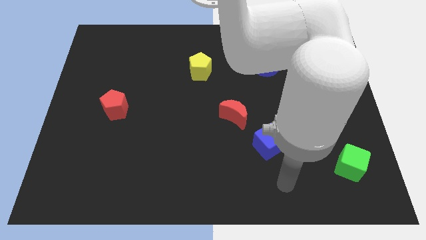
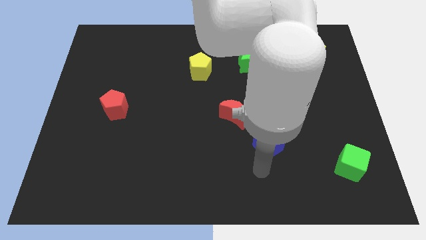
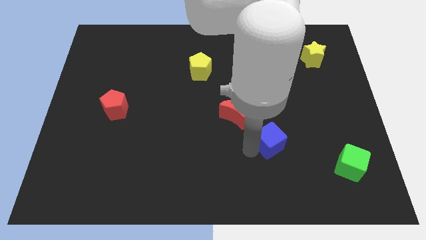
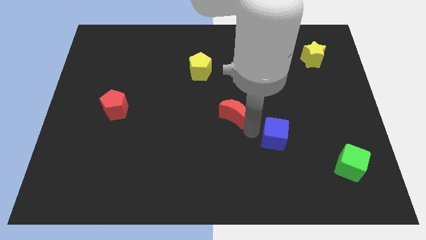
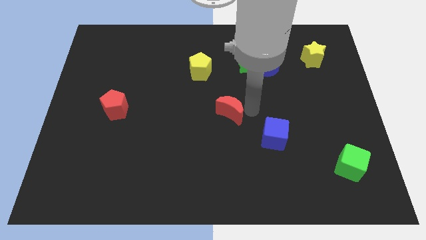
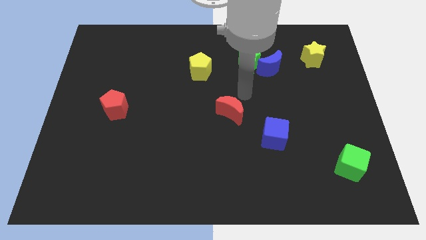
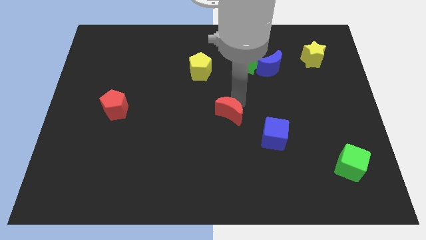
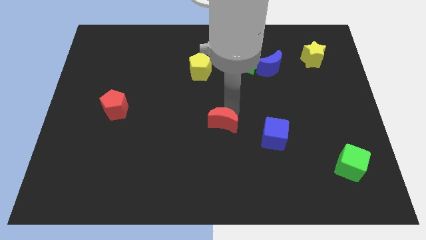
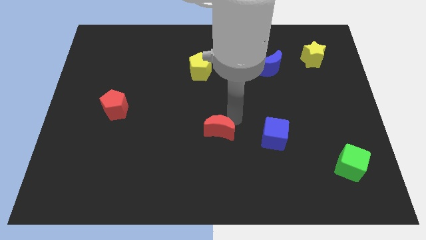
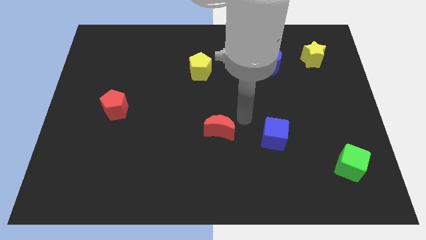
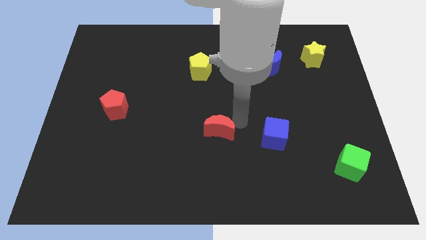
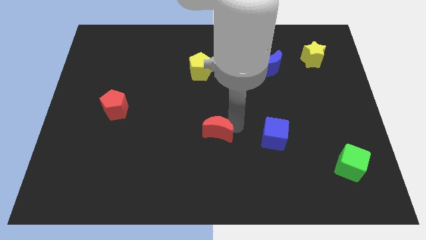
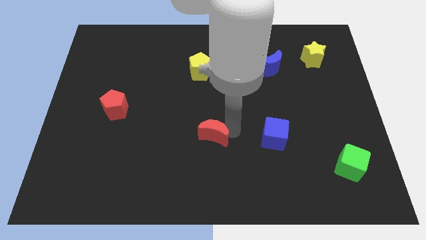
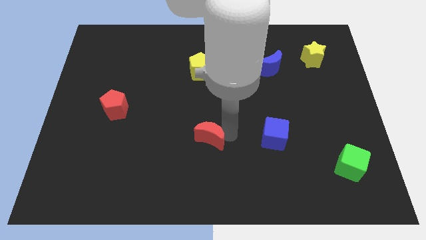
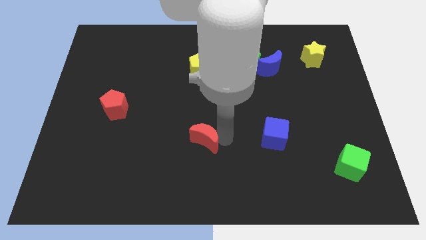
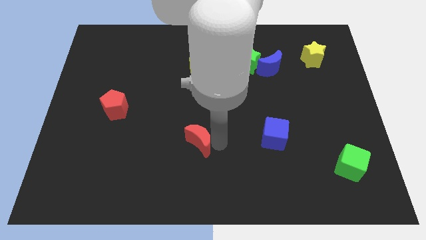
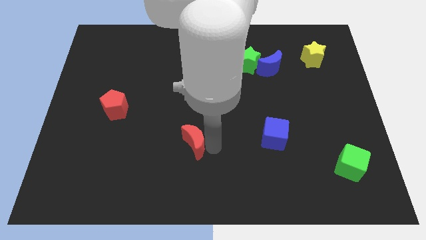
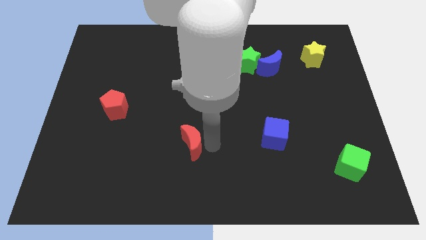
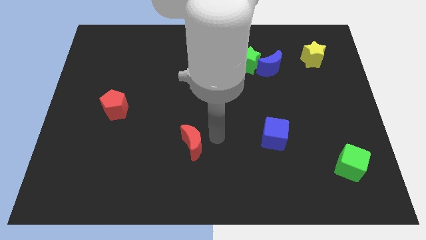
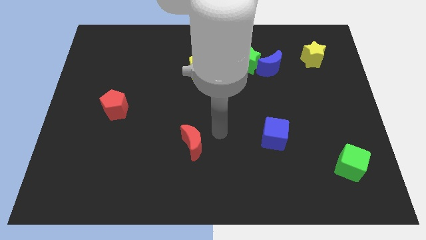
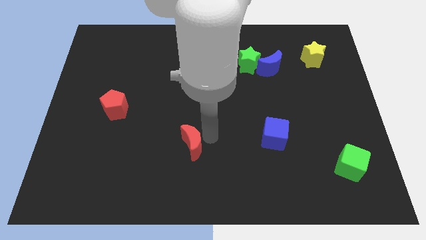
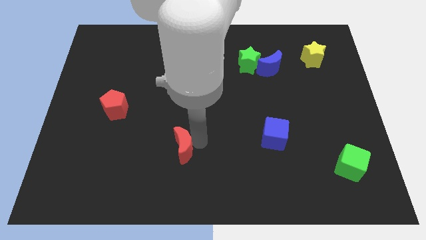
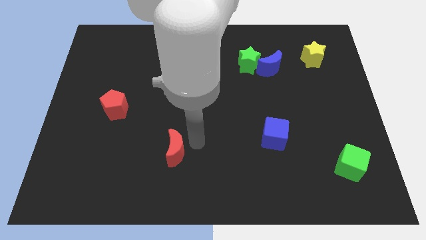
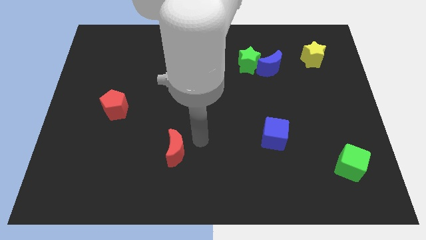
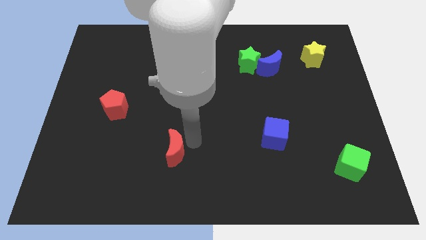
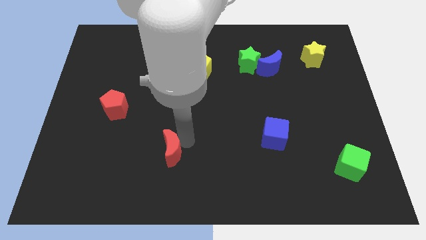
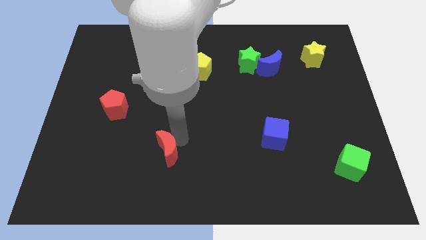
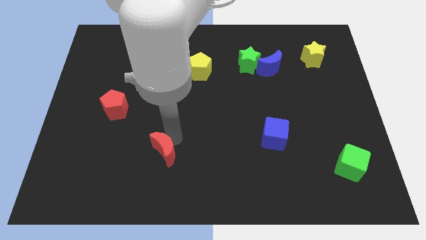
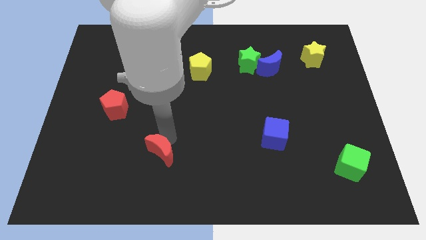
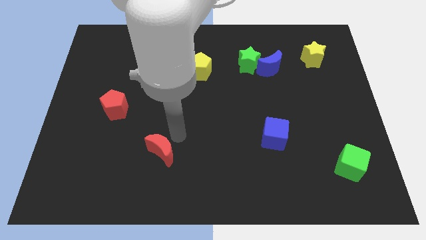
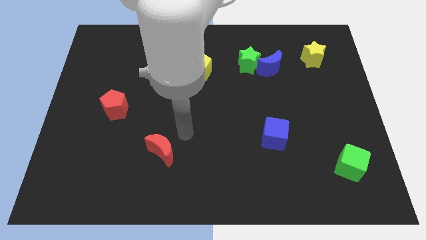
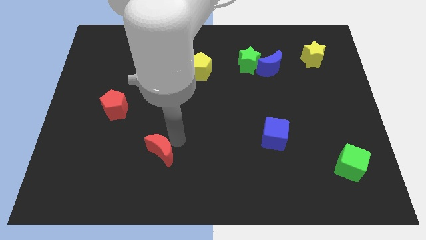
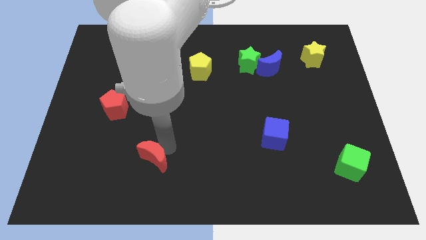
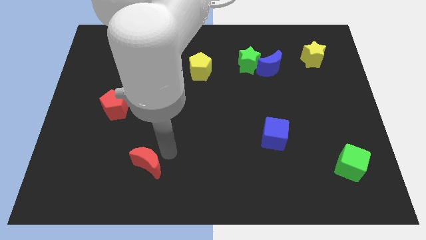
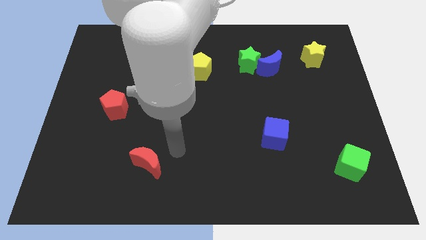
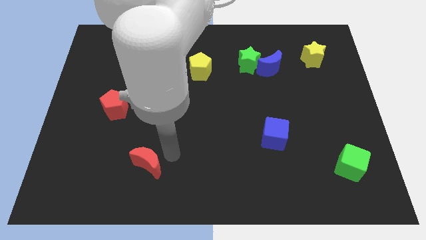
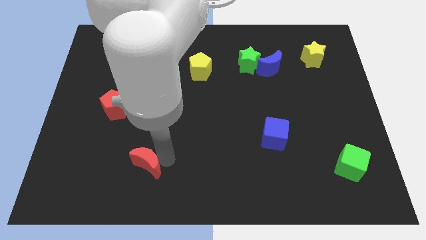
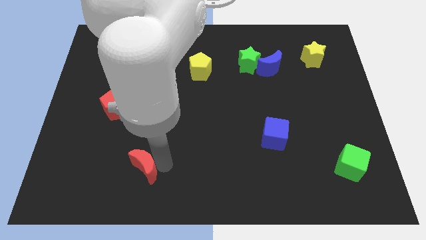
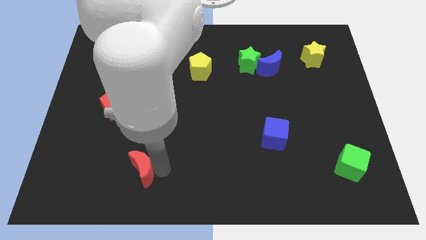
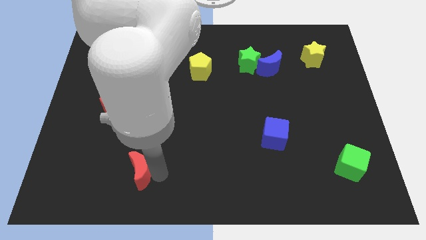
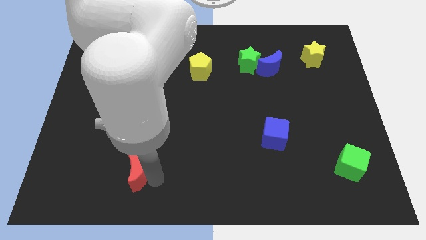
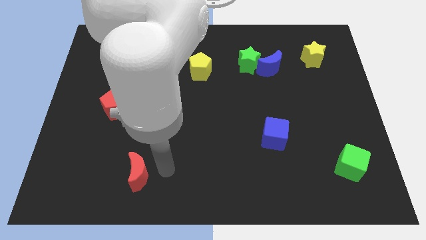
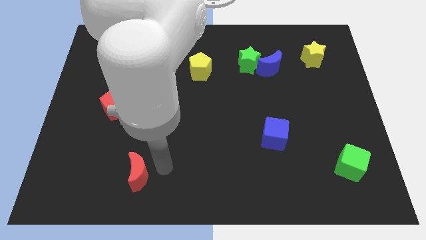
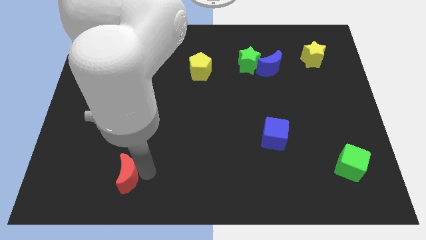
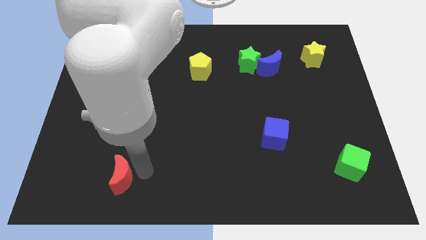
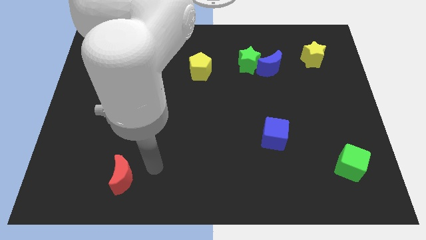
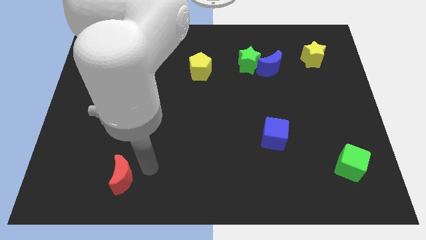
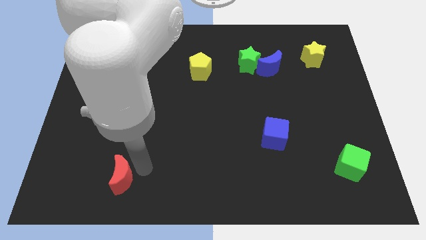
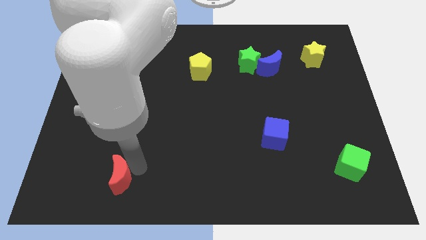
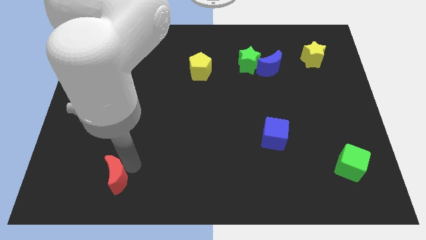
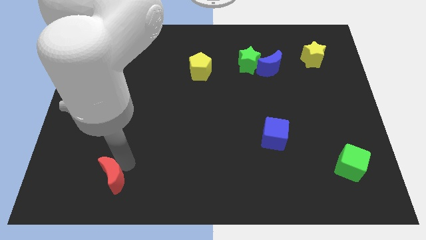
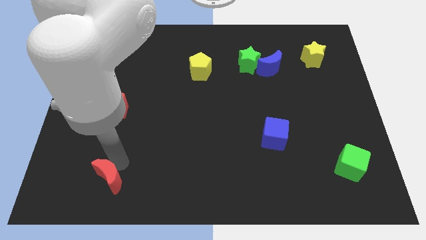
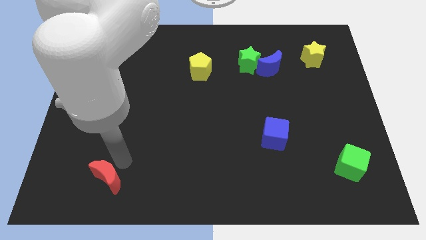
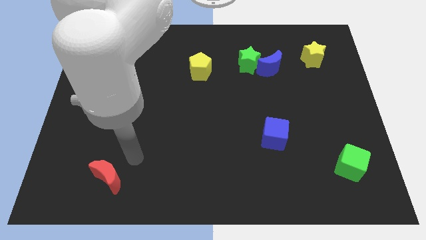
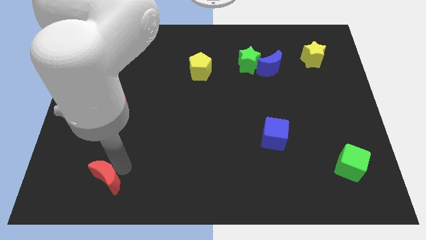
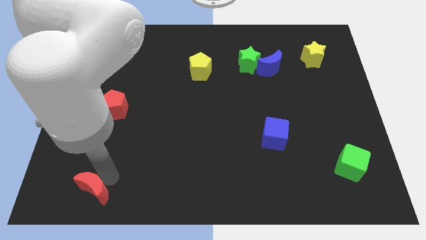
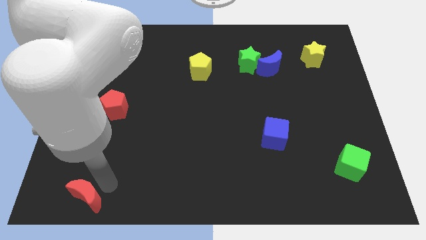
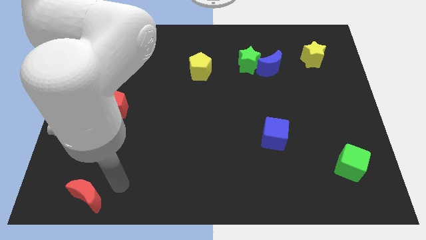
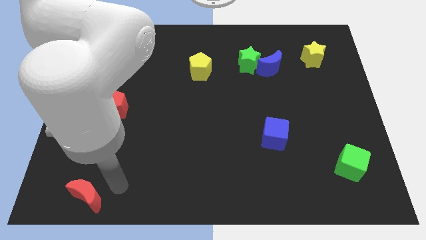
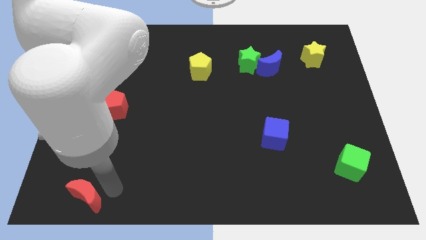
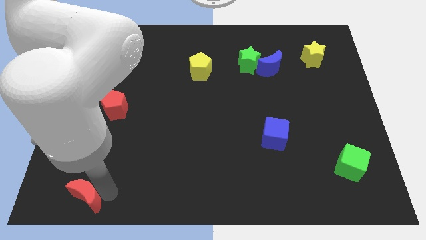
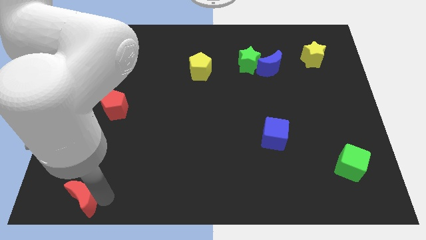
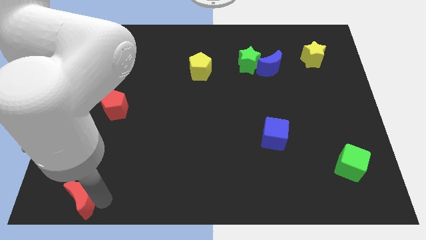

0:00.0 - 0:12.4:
slide the red moon to the bottom left of the board
